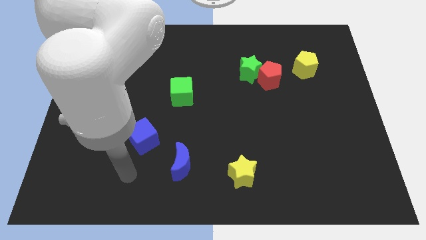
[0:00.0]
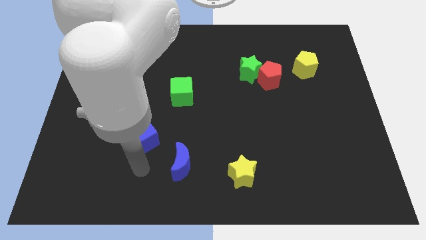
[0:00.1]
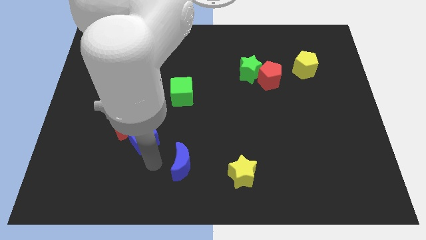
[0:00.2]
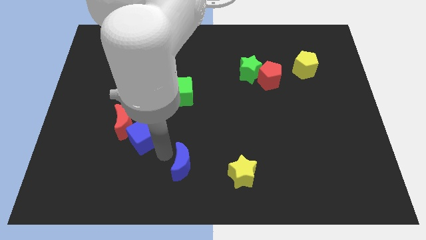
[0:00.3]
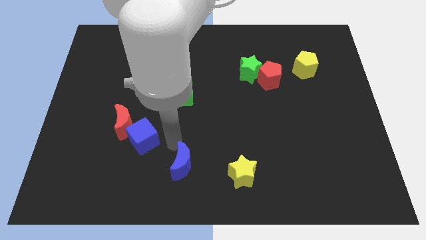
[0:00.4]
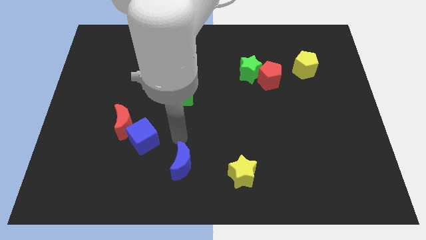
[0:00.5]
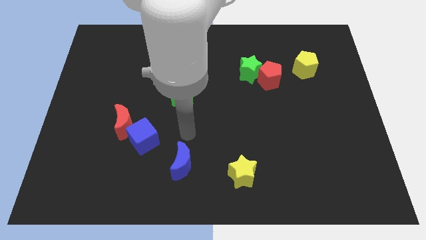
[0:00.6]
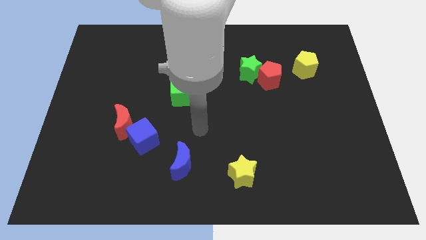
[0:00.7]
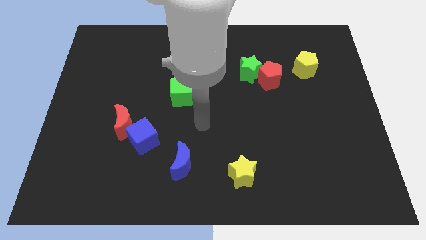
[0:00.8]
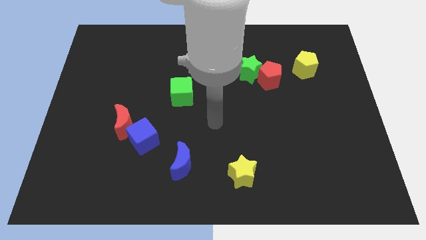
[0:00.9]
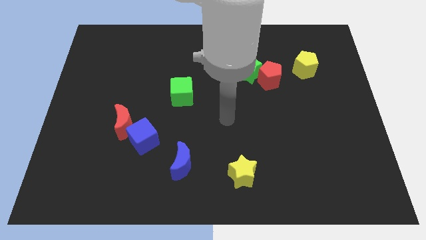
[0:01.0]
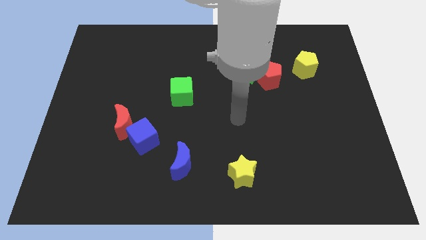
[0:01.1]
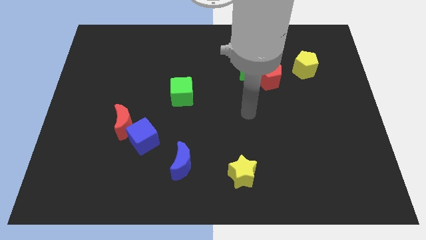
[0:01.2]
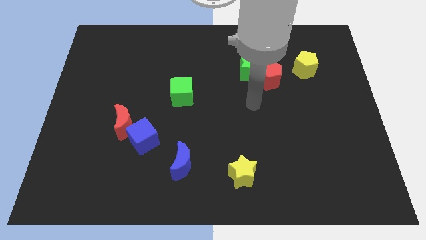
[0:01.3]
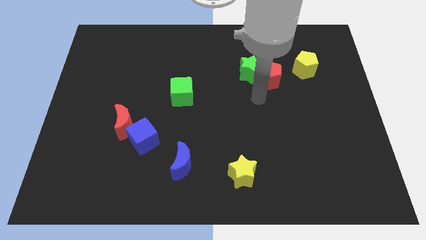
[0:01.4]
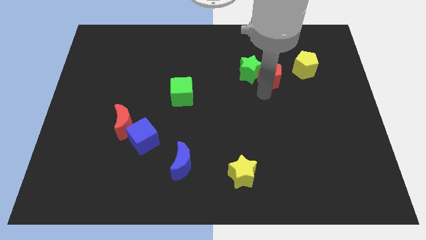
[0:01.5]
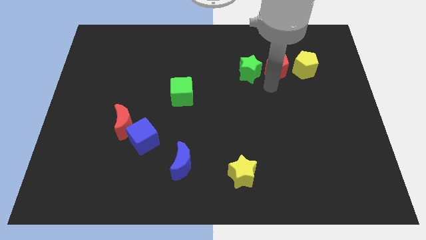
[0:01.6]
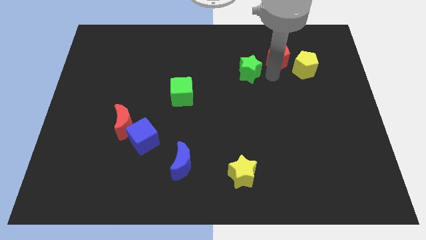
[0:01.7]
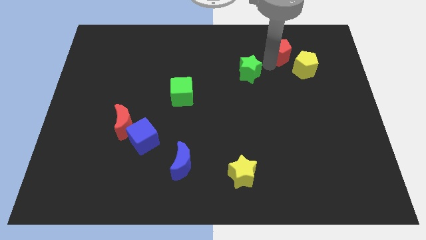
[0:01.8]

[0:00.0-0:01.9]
separate the green star from the red pentagon

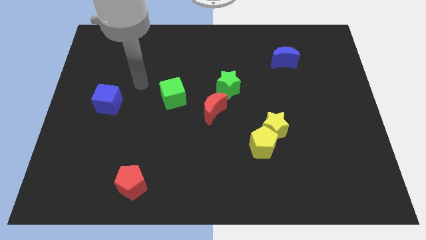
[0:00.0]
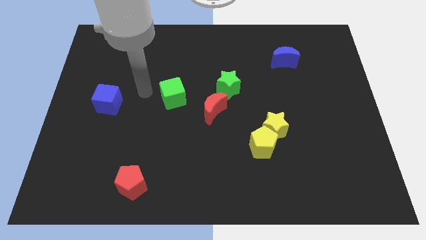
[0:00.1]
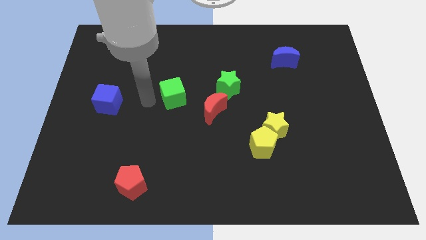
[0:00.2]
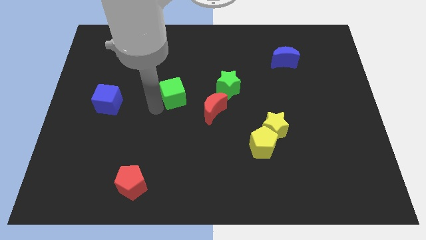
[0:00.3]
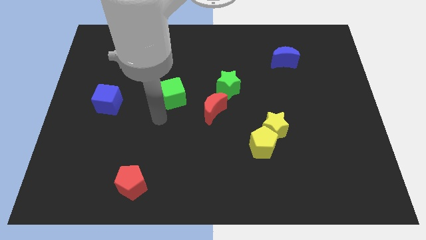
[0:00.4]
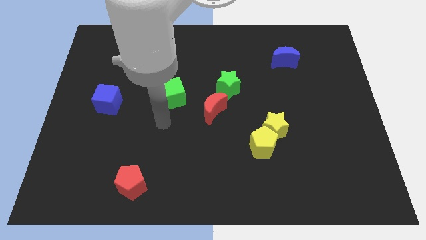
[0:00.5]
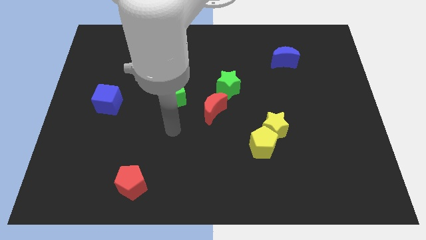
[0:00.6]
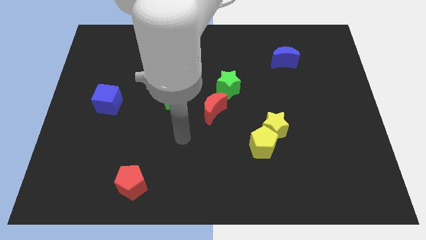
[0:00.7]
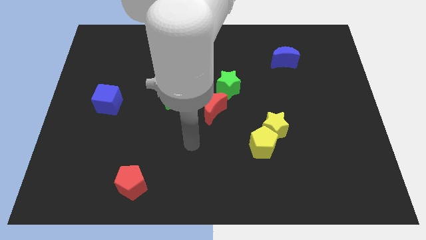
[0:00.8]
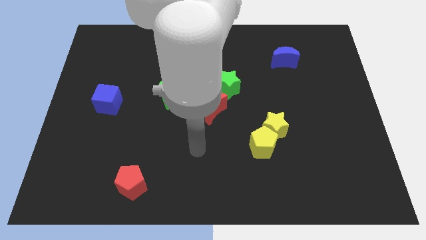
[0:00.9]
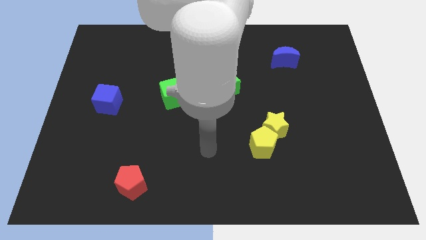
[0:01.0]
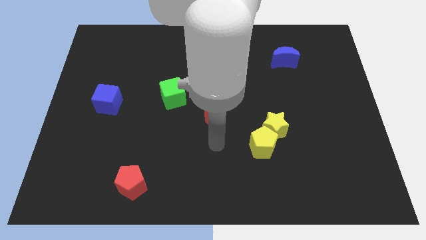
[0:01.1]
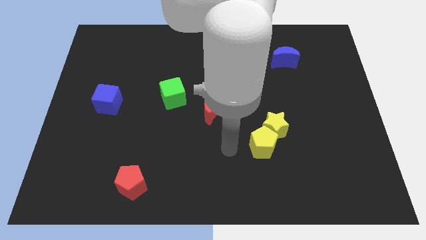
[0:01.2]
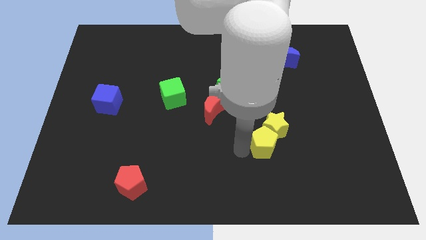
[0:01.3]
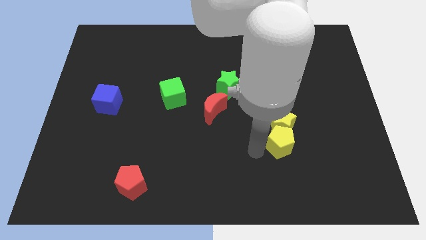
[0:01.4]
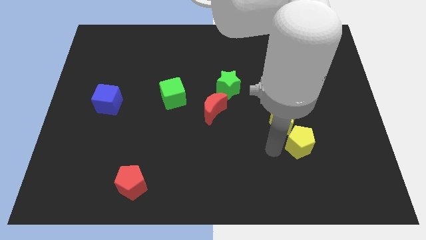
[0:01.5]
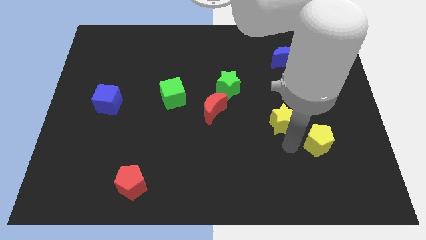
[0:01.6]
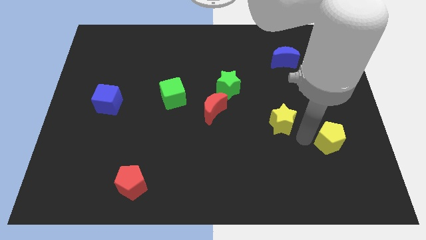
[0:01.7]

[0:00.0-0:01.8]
move the yellow star away from the yellow pentagon

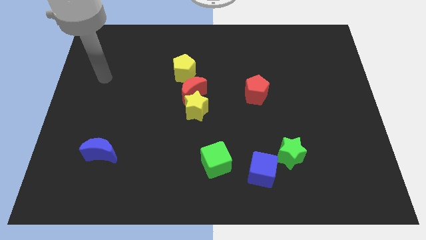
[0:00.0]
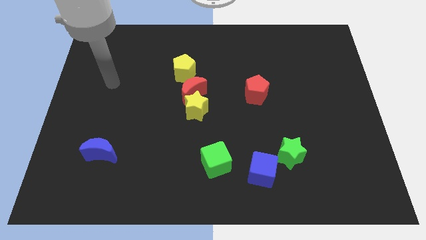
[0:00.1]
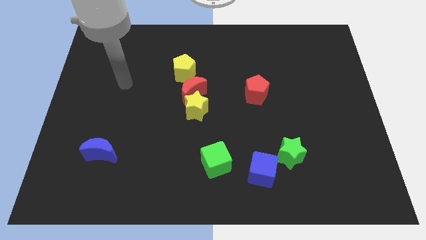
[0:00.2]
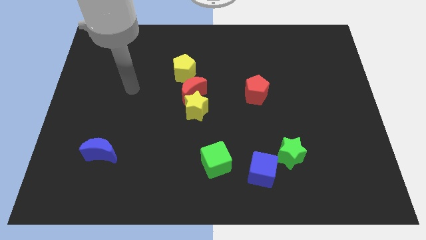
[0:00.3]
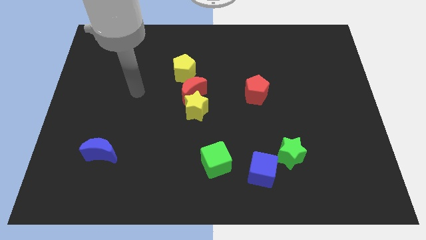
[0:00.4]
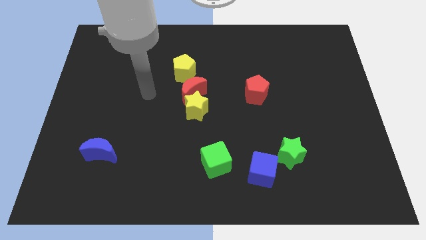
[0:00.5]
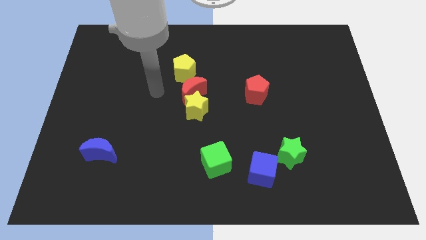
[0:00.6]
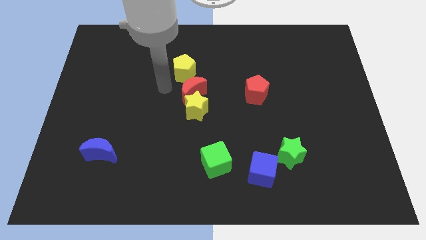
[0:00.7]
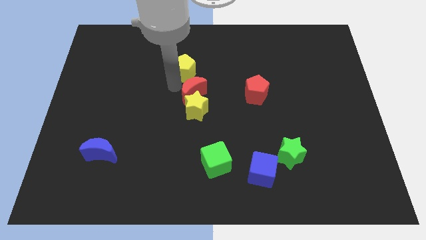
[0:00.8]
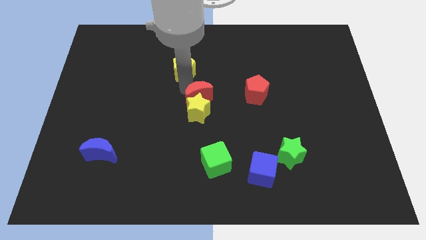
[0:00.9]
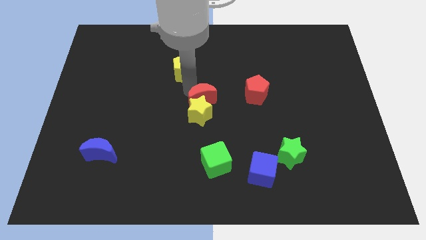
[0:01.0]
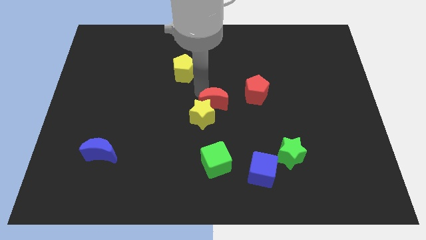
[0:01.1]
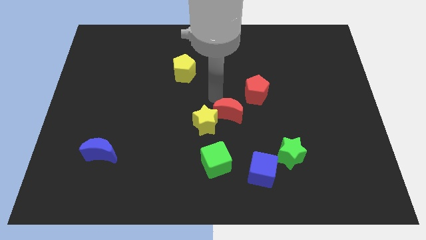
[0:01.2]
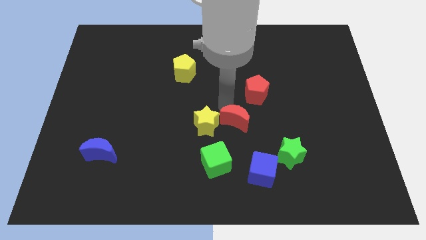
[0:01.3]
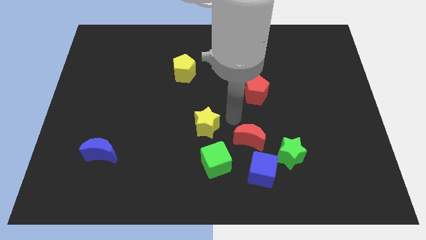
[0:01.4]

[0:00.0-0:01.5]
pull the yellow star apart from the red moon

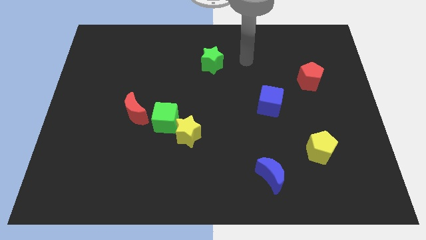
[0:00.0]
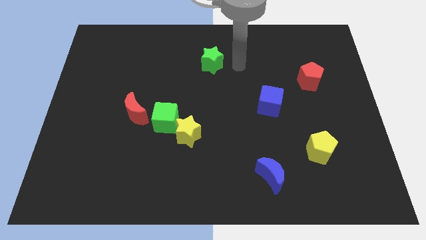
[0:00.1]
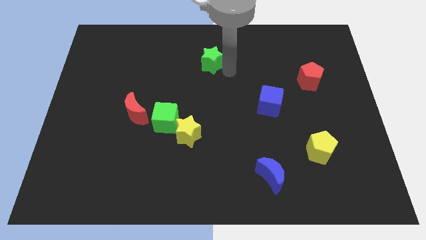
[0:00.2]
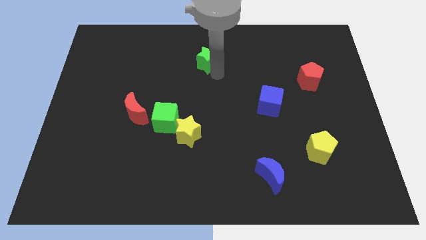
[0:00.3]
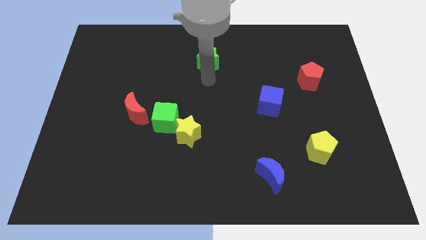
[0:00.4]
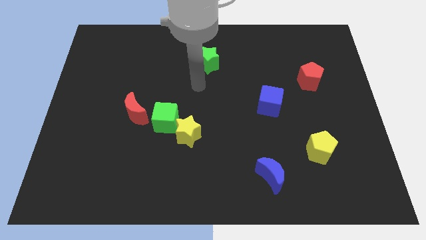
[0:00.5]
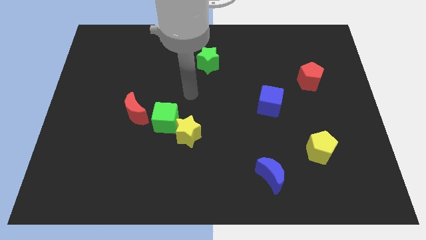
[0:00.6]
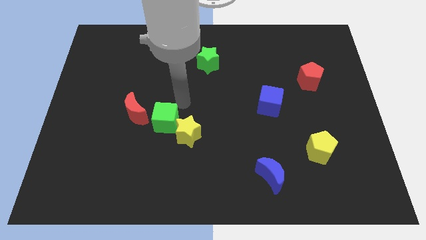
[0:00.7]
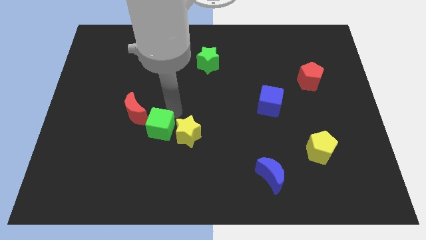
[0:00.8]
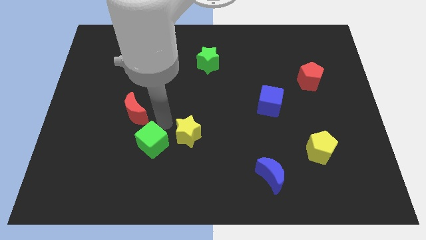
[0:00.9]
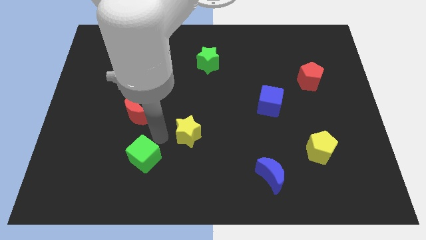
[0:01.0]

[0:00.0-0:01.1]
pull the yellow star apart from the green cube

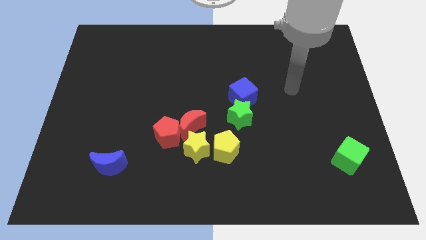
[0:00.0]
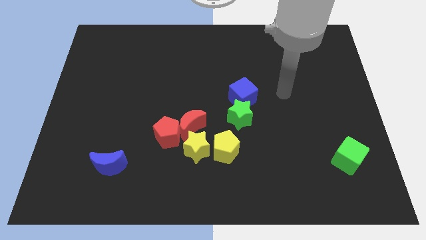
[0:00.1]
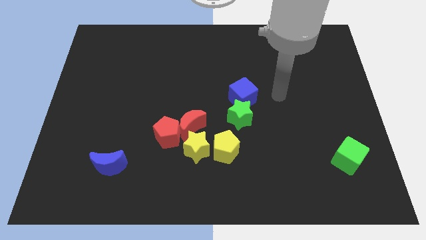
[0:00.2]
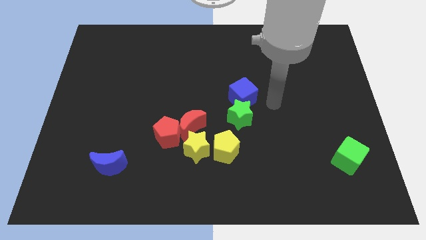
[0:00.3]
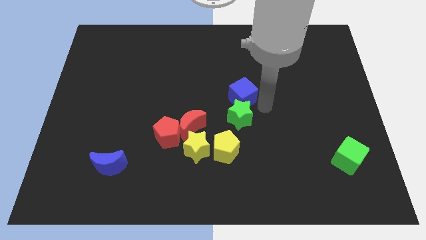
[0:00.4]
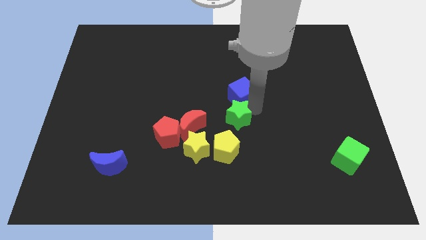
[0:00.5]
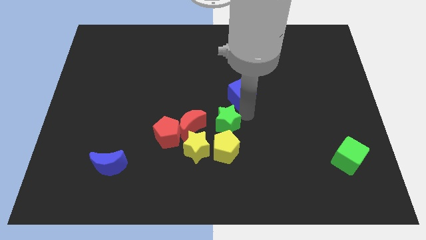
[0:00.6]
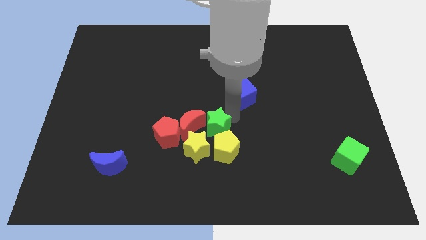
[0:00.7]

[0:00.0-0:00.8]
separate the blue cube from the green star

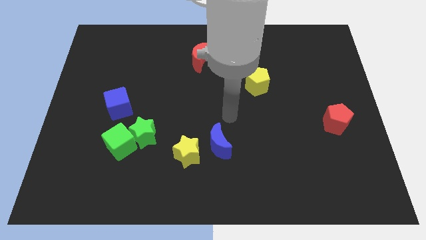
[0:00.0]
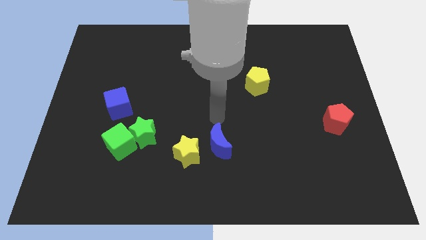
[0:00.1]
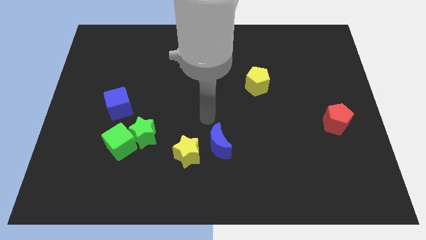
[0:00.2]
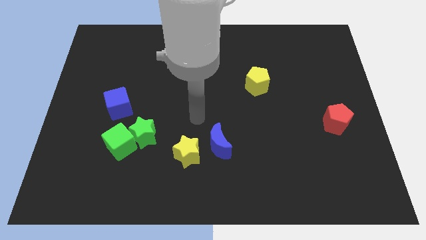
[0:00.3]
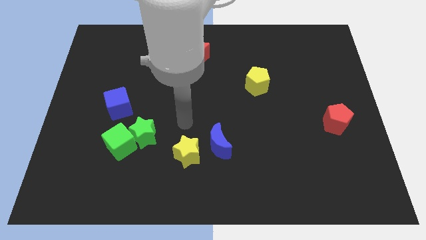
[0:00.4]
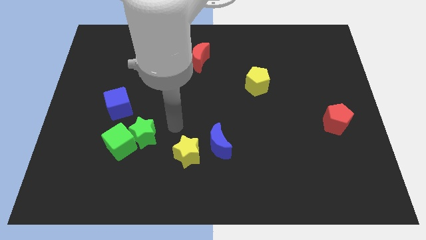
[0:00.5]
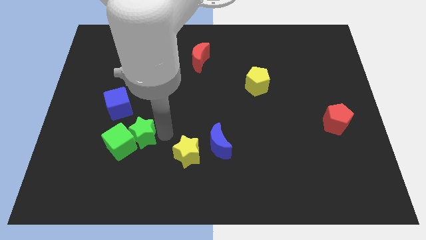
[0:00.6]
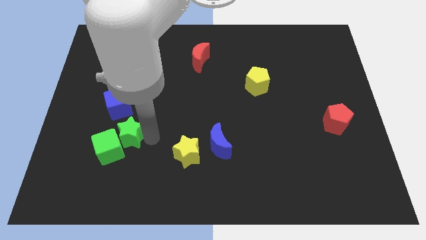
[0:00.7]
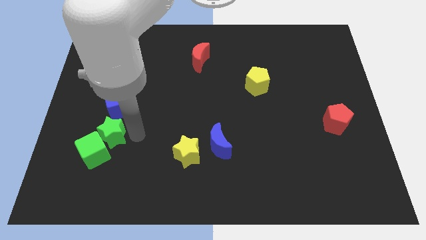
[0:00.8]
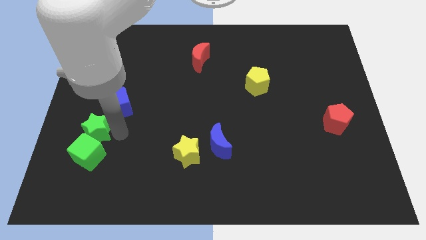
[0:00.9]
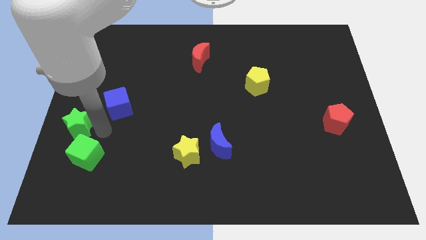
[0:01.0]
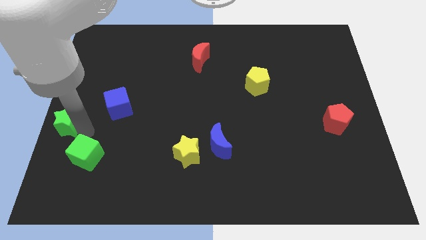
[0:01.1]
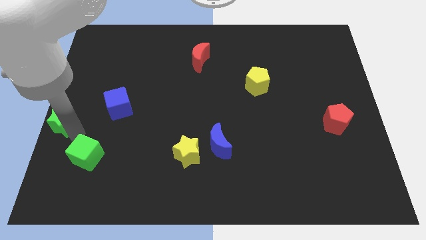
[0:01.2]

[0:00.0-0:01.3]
move the green cube away from the green star

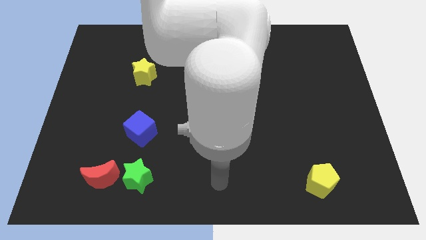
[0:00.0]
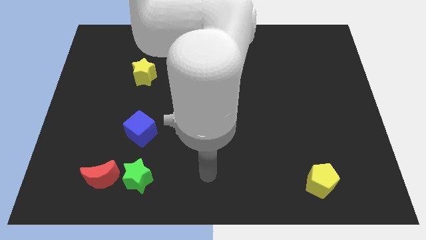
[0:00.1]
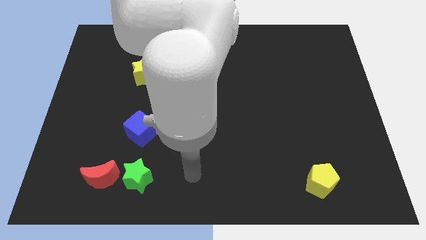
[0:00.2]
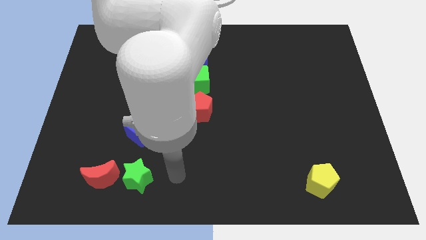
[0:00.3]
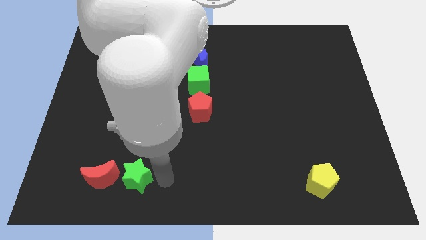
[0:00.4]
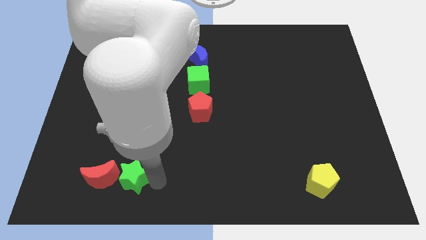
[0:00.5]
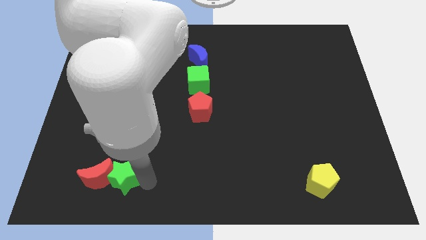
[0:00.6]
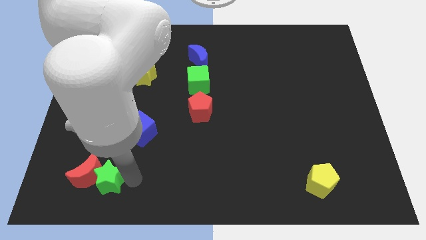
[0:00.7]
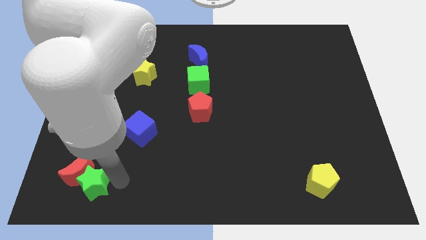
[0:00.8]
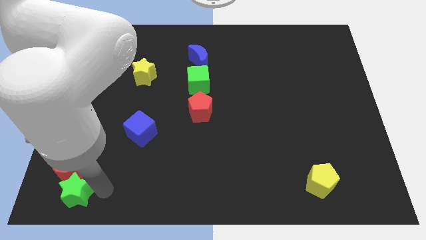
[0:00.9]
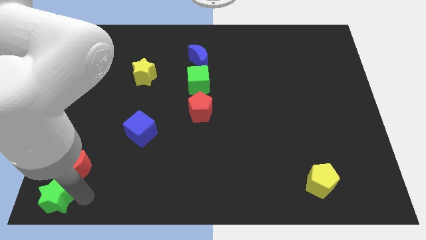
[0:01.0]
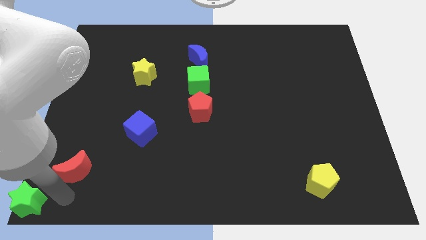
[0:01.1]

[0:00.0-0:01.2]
pull the red moon apart from the green star
